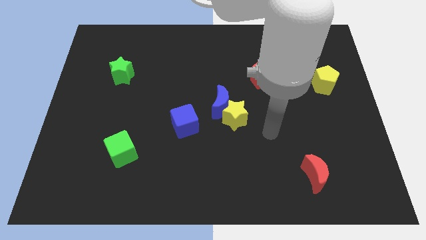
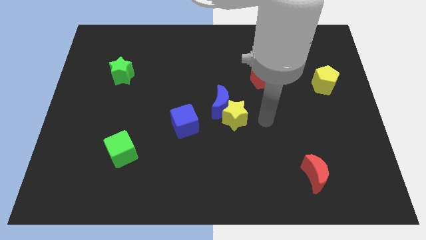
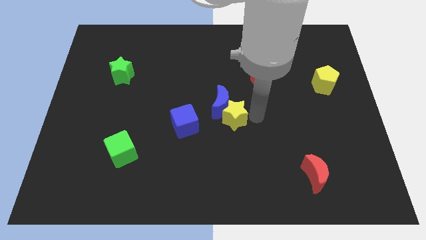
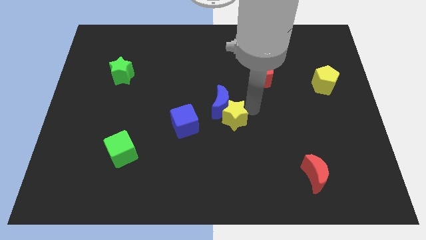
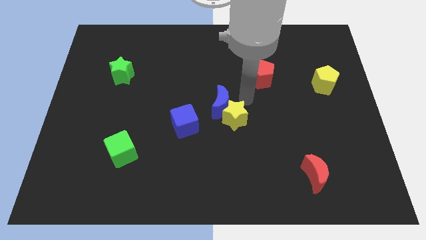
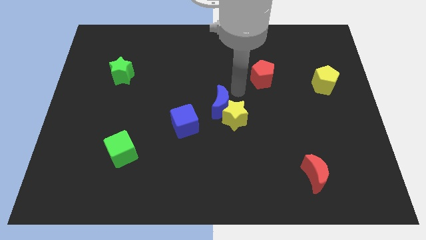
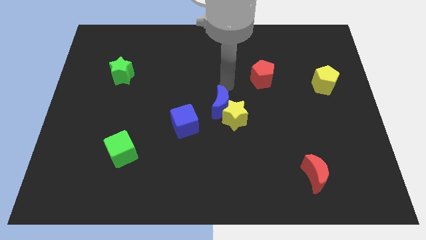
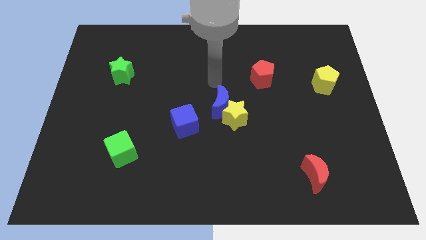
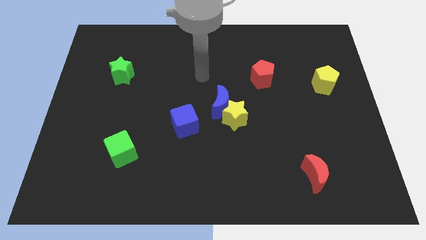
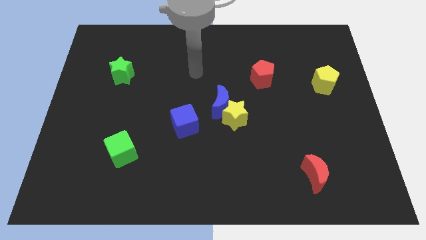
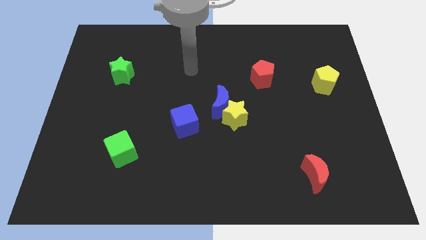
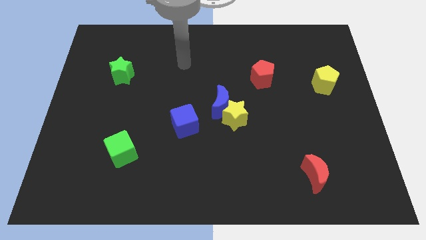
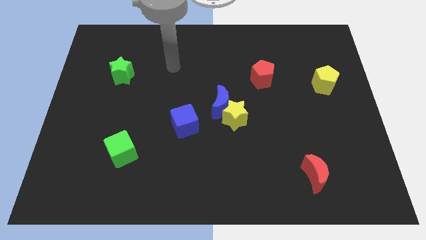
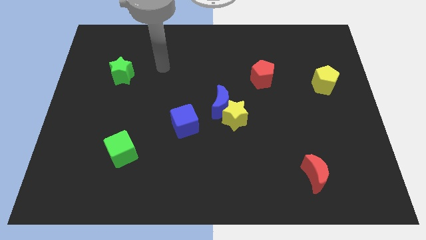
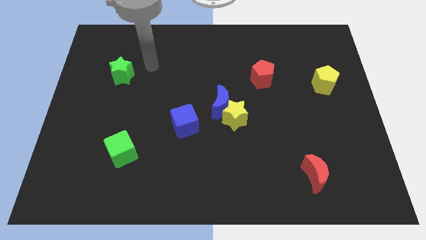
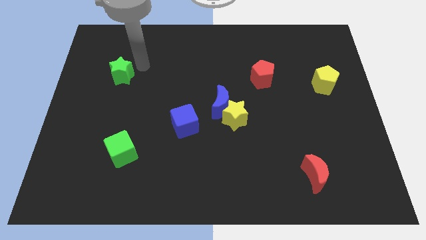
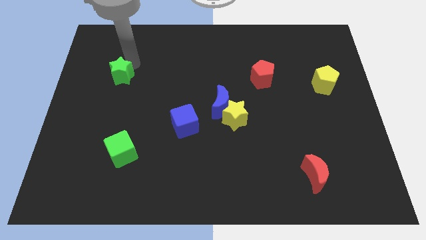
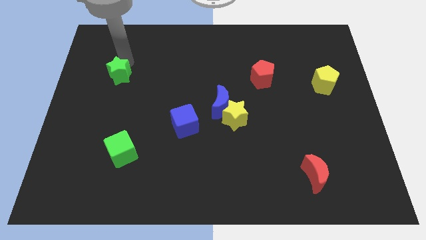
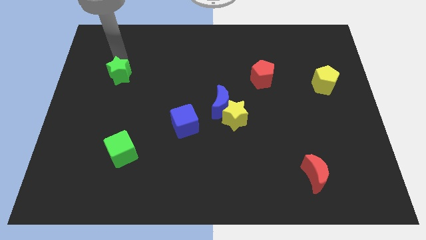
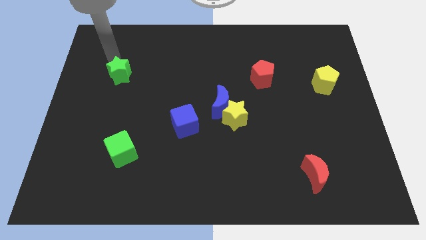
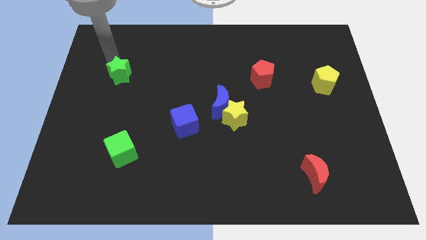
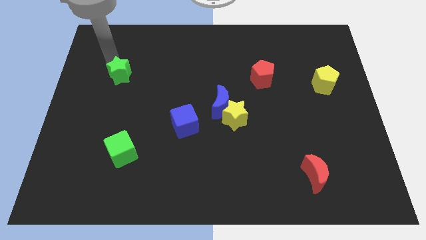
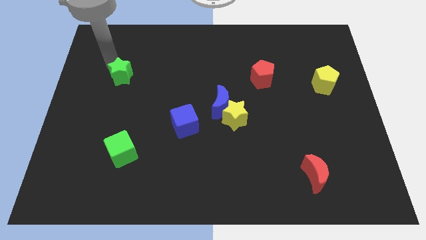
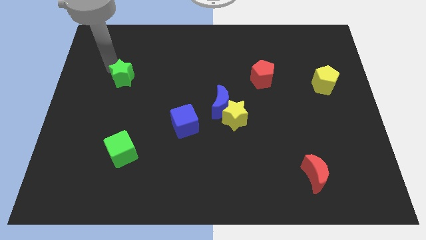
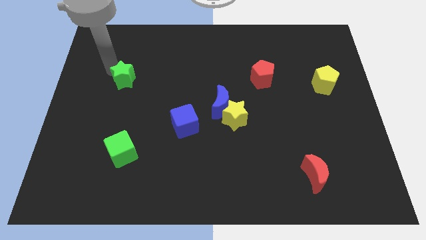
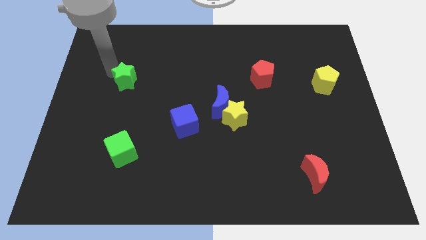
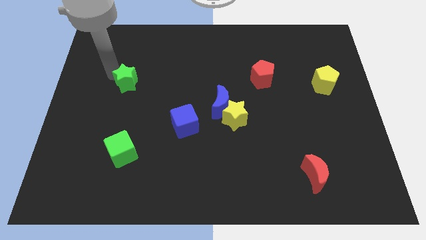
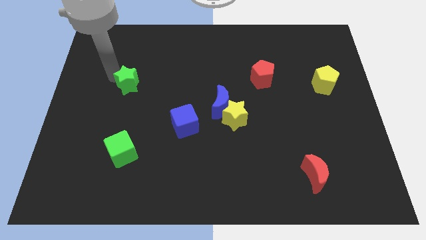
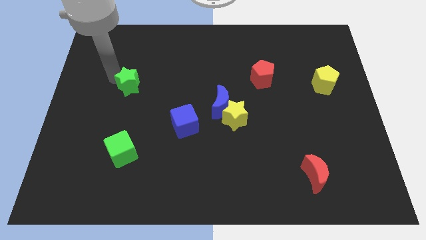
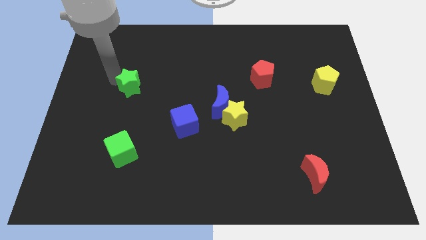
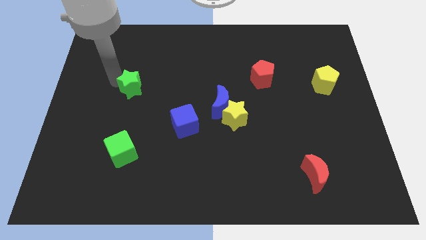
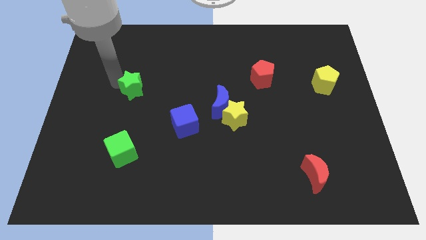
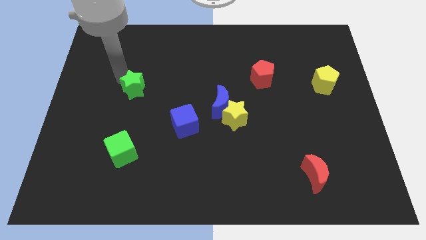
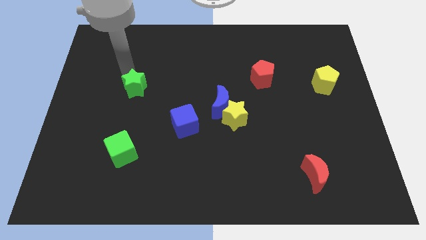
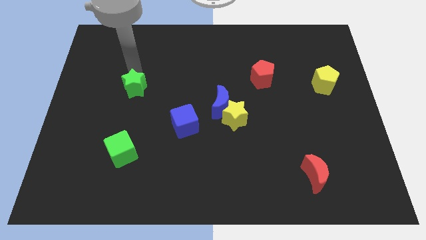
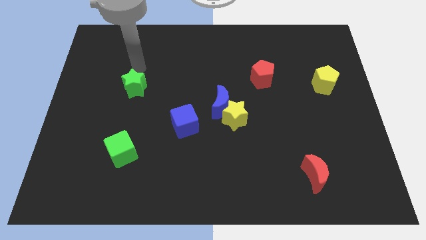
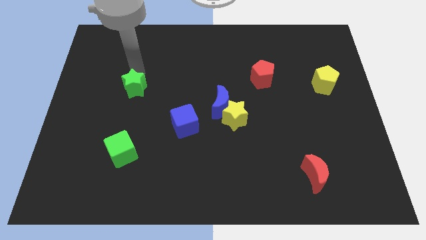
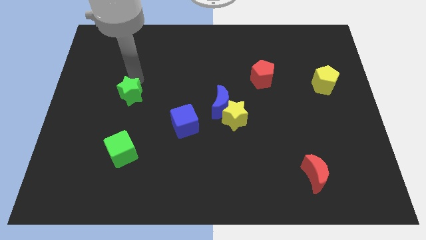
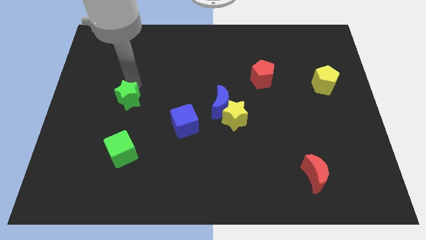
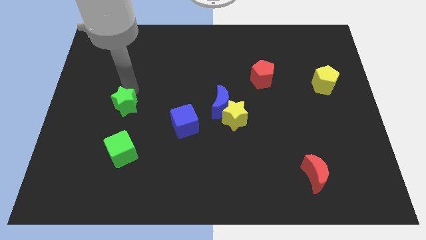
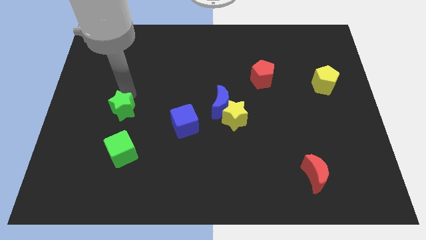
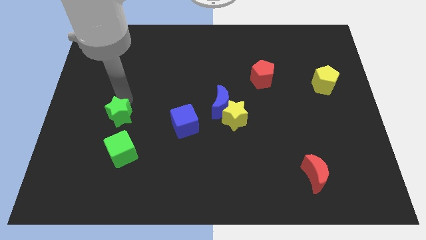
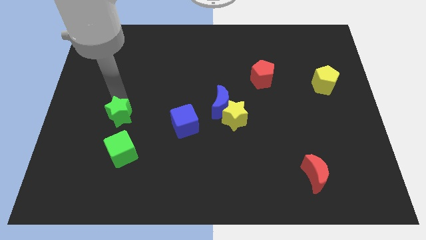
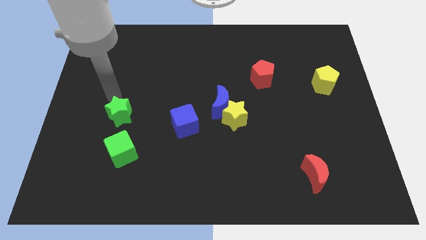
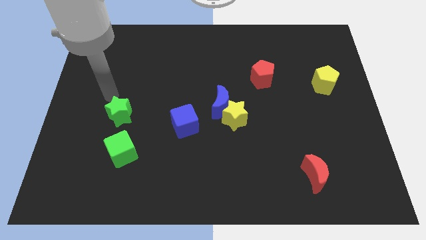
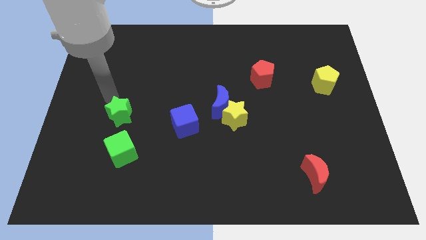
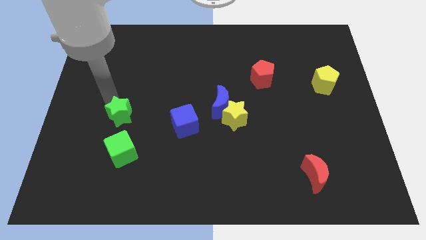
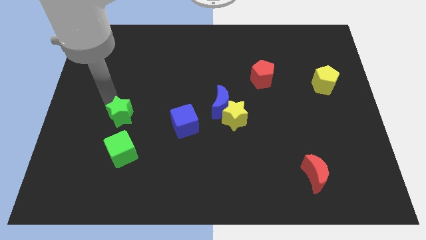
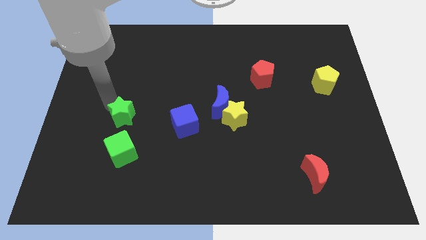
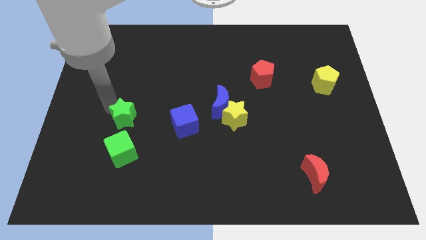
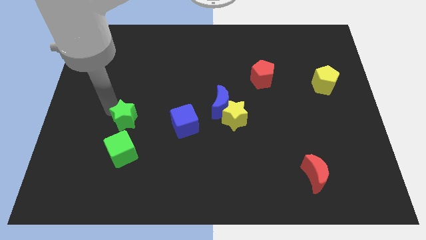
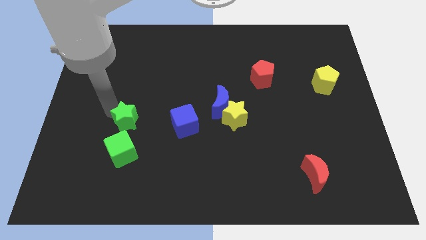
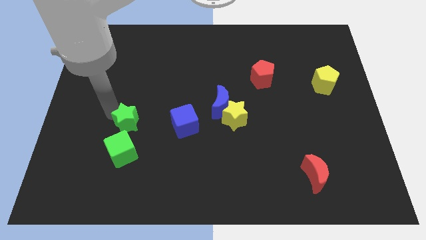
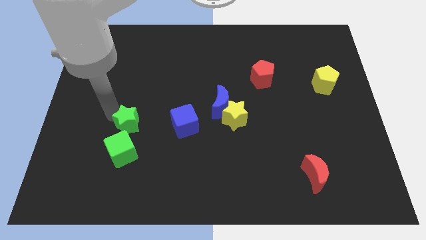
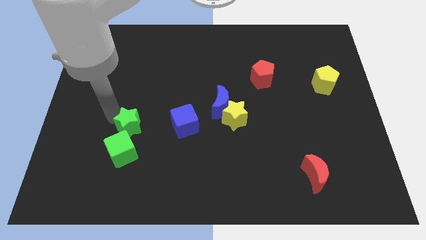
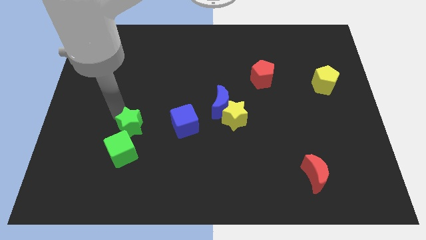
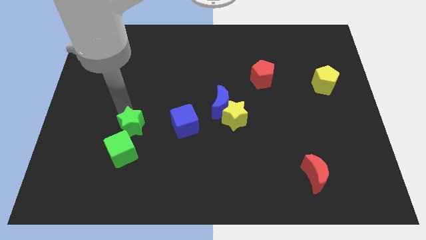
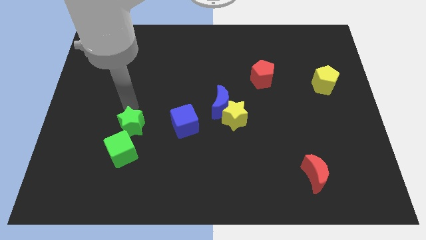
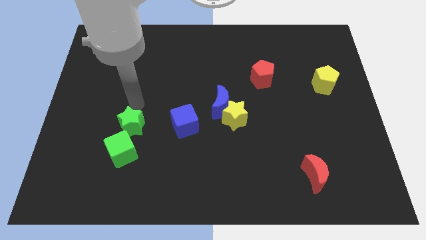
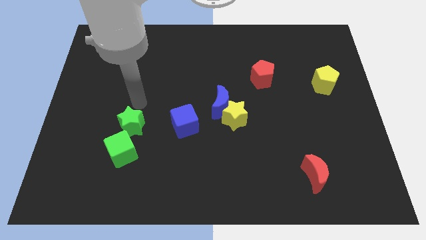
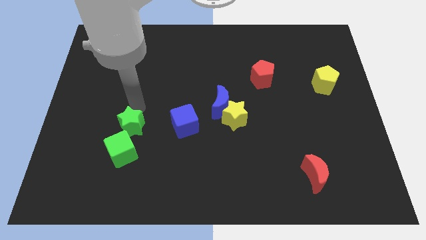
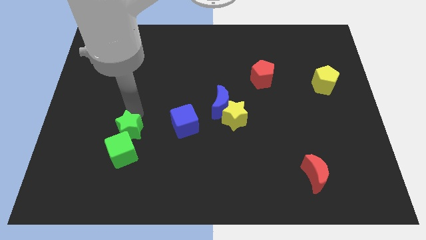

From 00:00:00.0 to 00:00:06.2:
push the green star towards the green cube

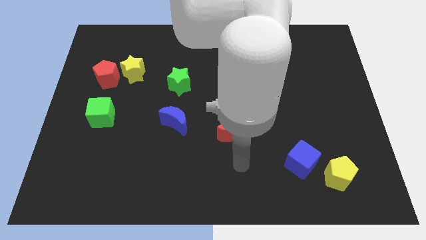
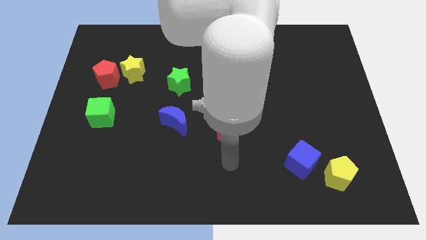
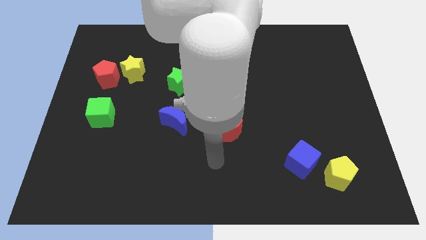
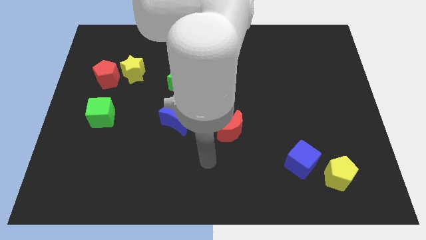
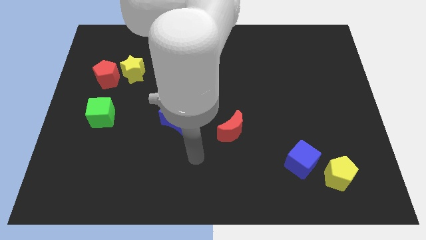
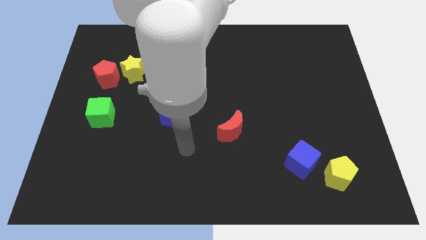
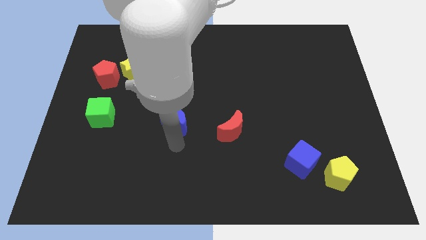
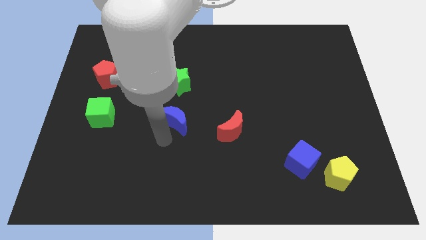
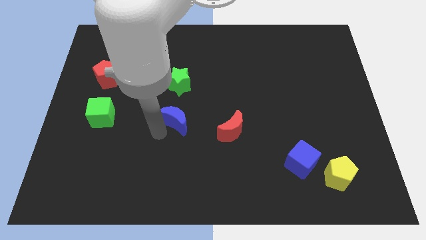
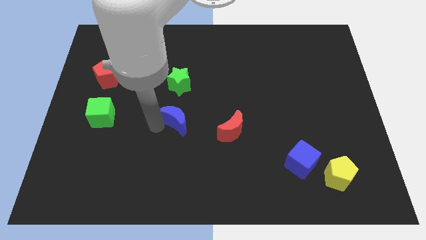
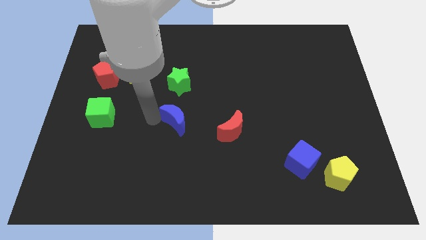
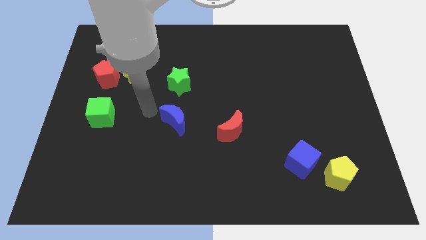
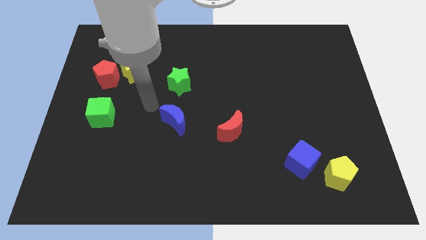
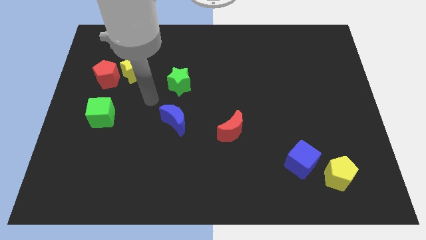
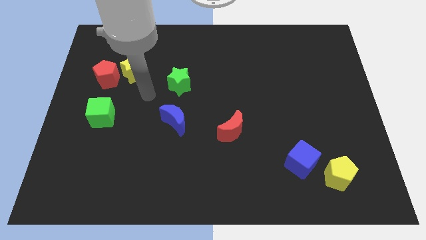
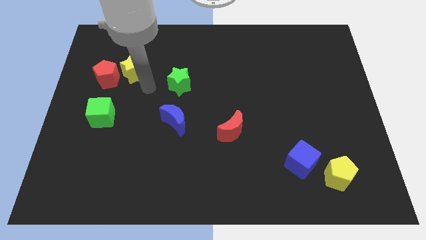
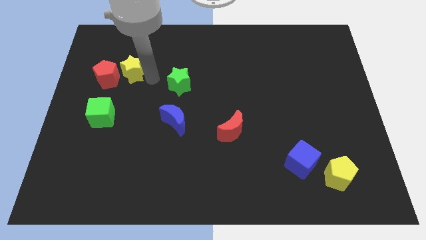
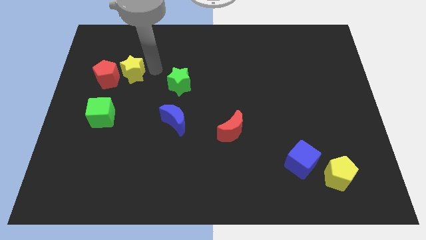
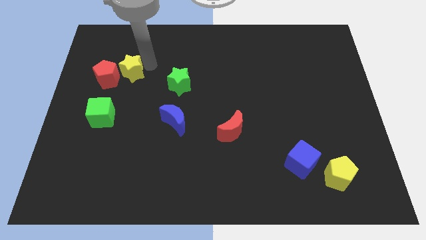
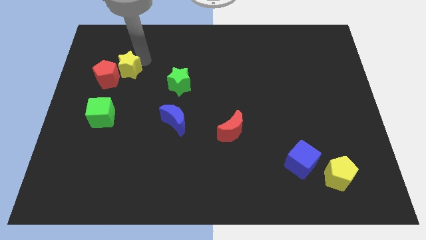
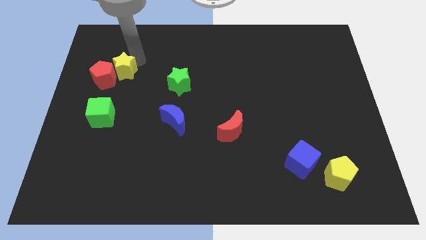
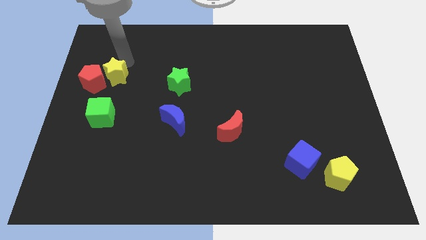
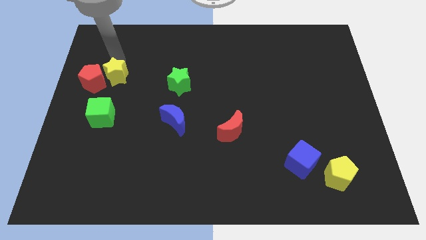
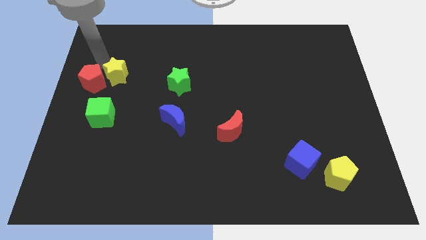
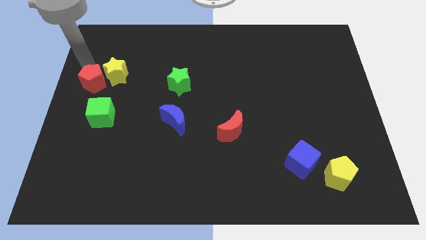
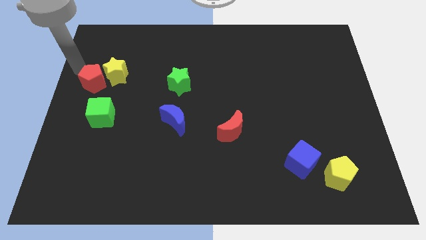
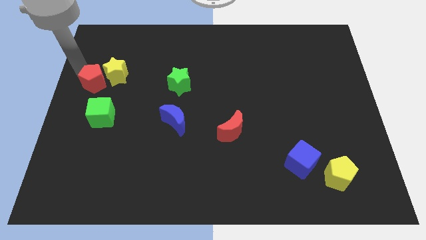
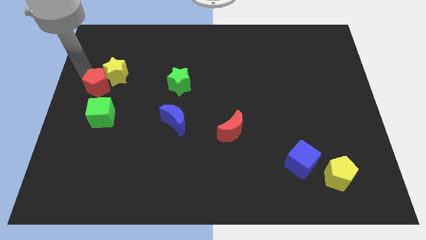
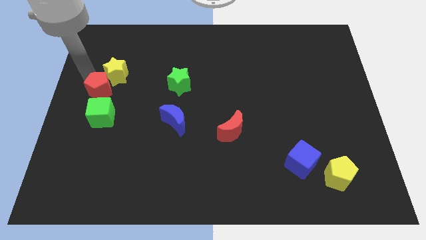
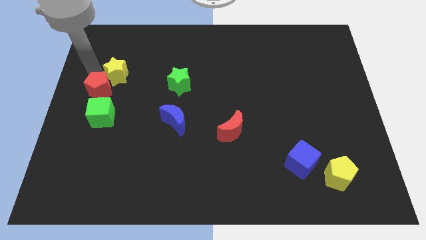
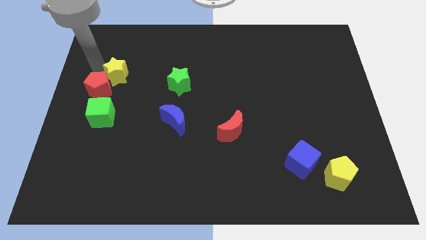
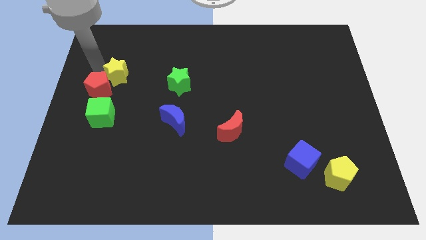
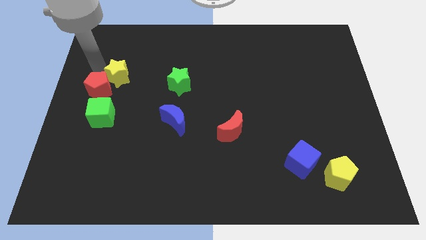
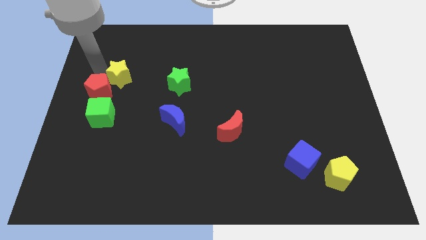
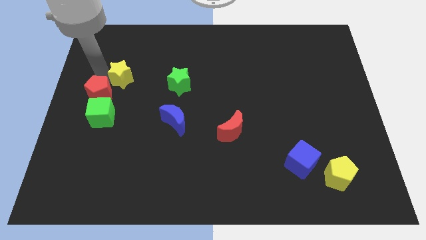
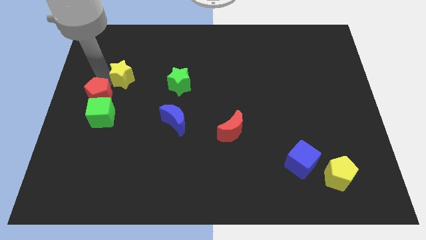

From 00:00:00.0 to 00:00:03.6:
put the red pentagon towards the green cube
